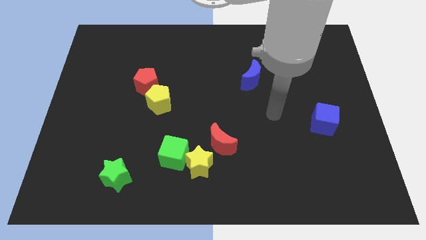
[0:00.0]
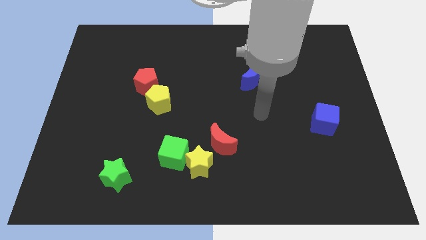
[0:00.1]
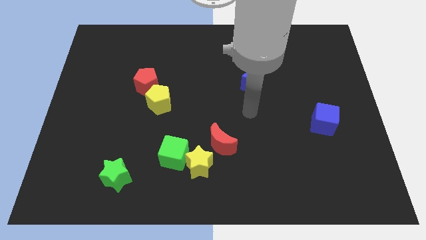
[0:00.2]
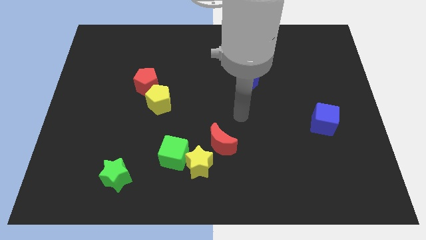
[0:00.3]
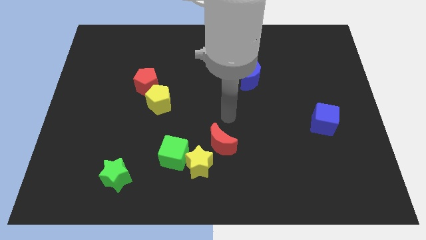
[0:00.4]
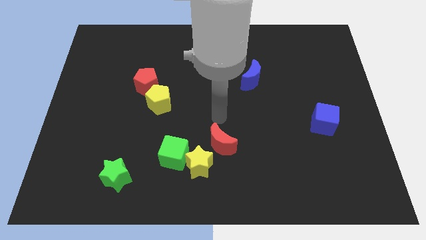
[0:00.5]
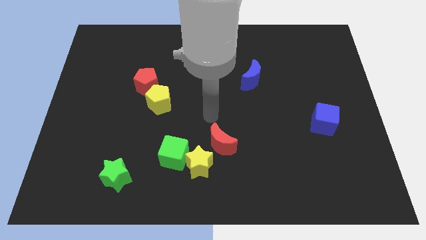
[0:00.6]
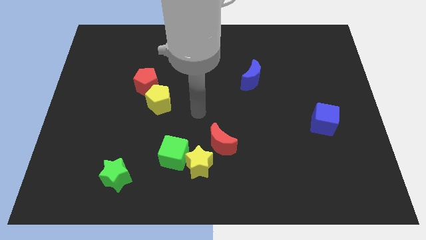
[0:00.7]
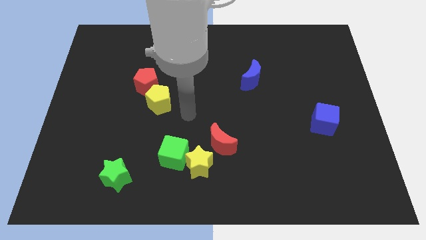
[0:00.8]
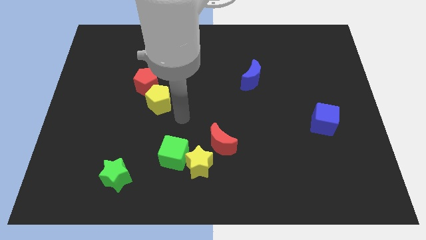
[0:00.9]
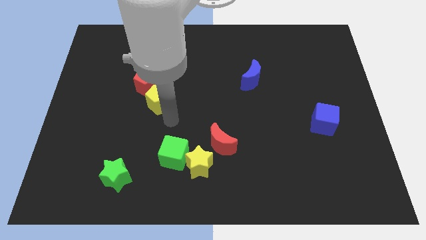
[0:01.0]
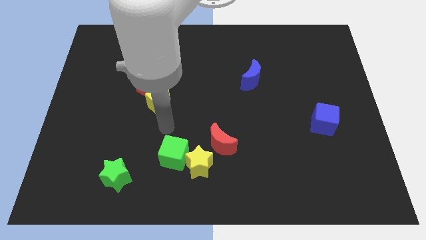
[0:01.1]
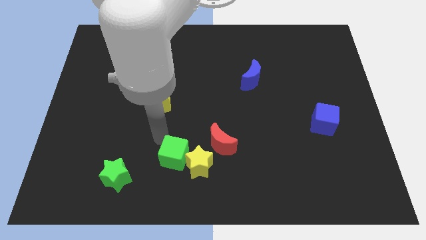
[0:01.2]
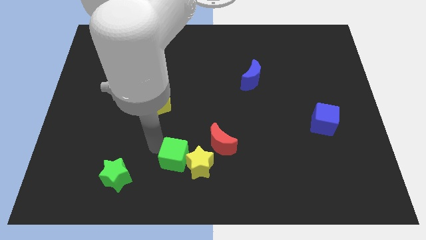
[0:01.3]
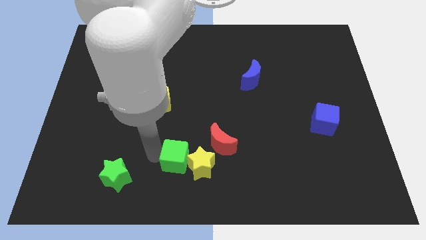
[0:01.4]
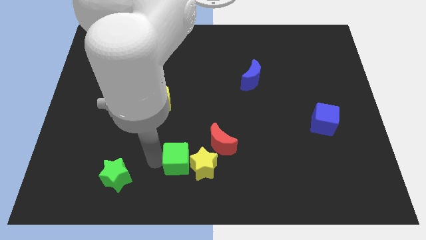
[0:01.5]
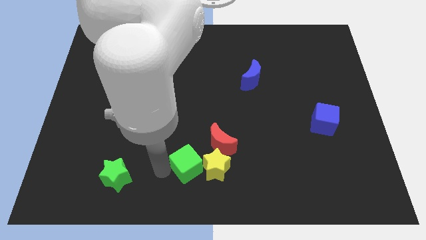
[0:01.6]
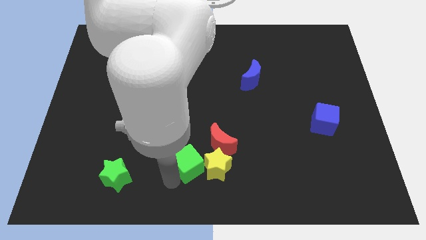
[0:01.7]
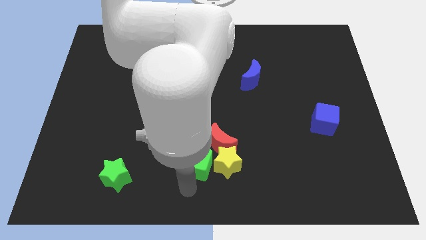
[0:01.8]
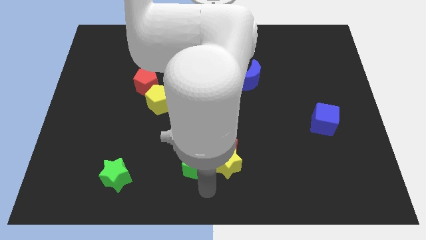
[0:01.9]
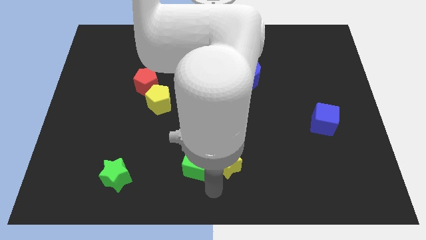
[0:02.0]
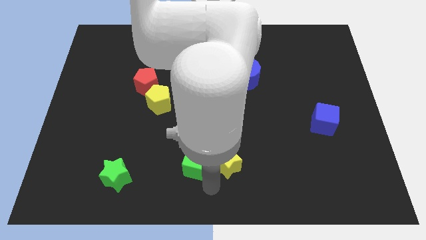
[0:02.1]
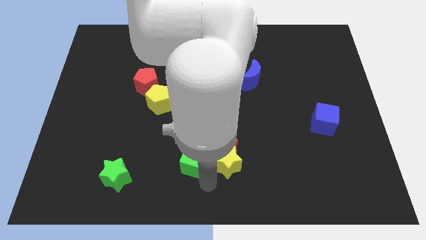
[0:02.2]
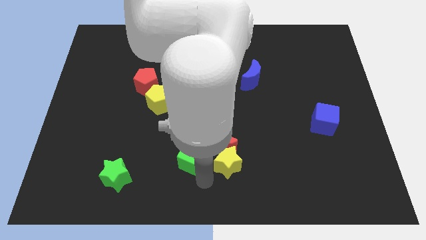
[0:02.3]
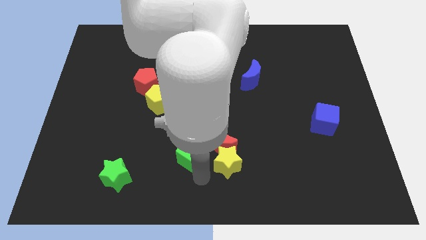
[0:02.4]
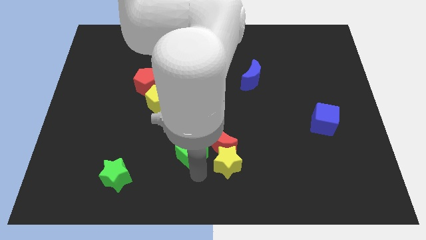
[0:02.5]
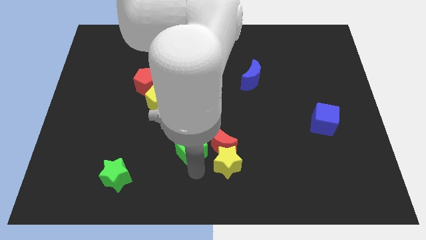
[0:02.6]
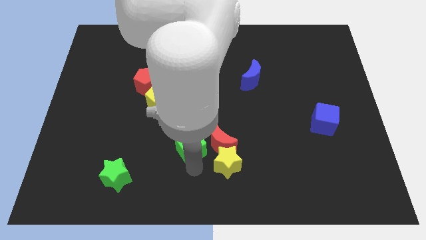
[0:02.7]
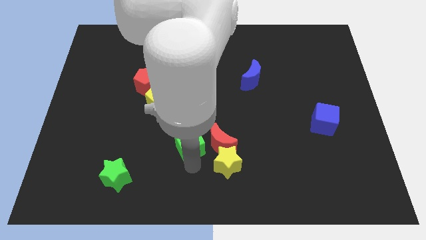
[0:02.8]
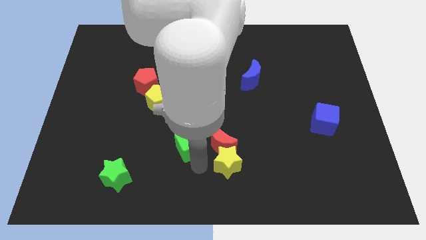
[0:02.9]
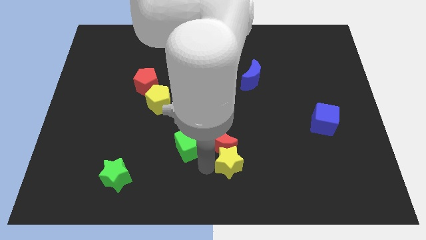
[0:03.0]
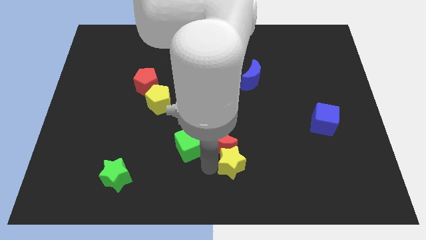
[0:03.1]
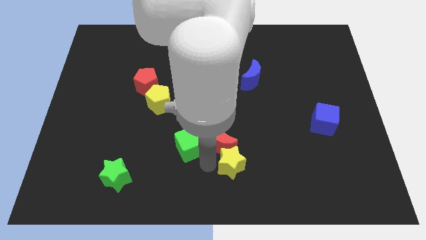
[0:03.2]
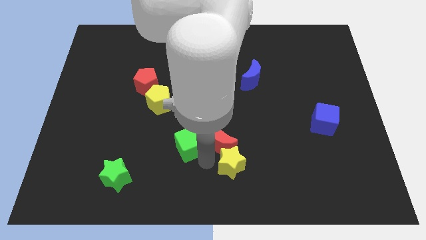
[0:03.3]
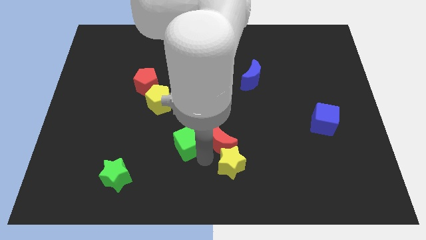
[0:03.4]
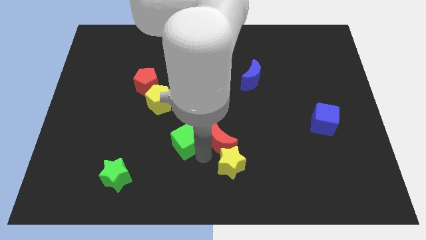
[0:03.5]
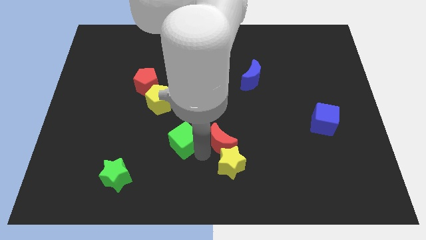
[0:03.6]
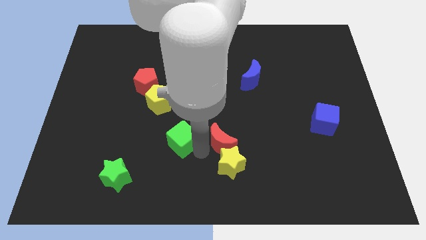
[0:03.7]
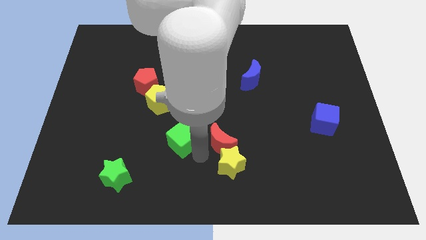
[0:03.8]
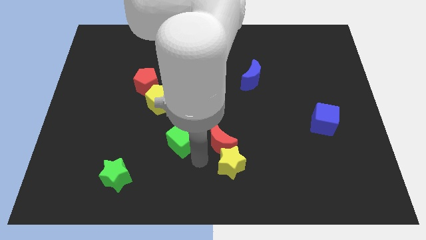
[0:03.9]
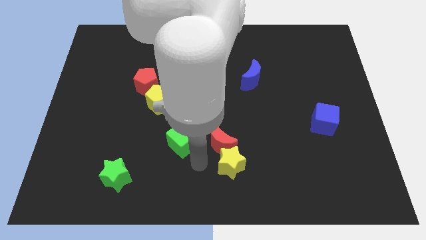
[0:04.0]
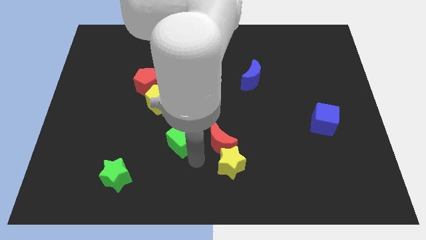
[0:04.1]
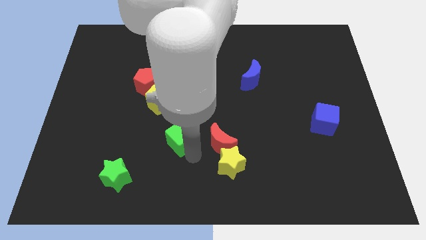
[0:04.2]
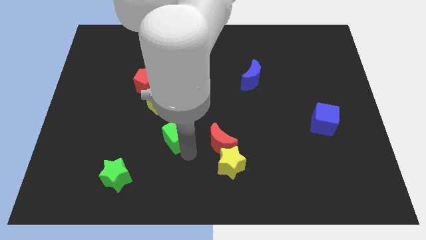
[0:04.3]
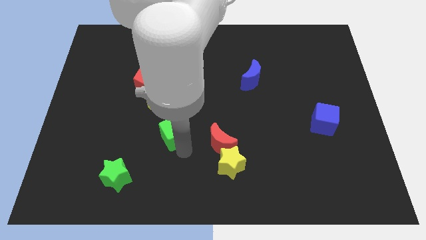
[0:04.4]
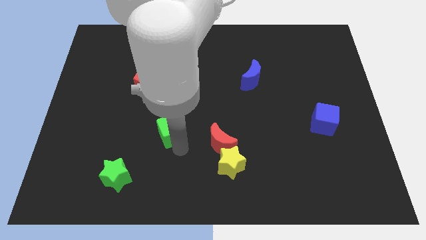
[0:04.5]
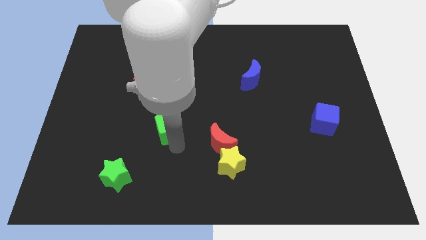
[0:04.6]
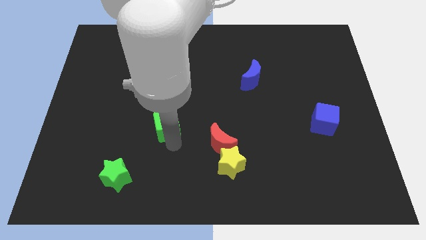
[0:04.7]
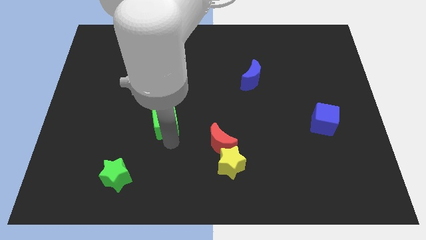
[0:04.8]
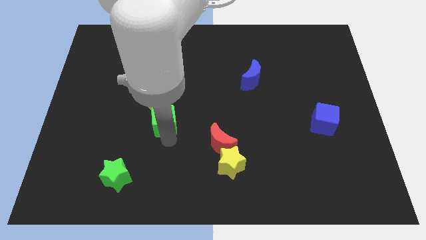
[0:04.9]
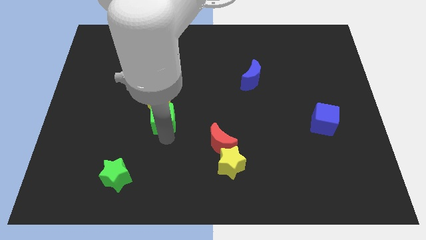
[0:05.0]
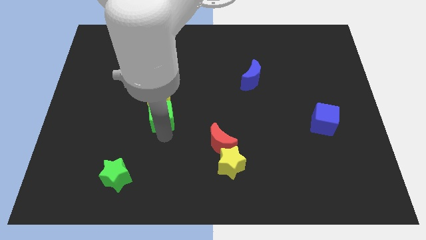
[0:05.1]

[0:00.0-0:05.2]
put the green cube diagonally down and to the right of the red pentagon
